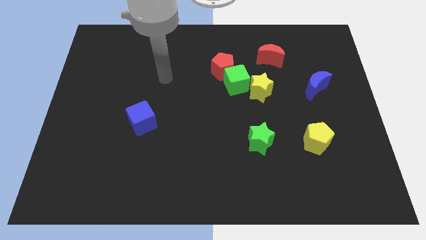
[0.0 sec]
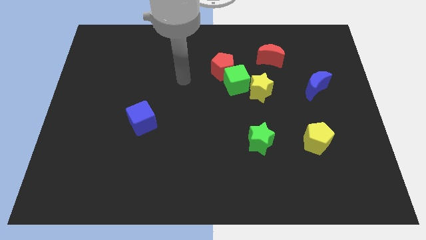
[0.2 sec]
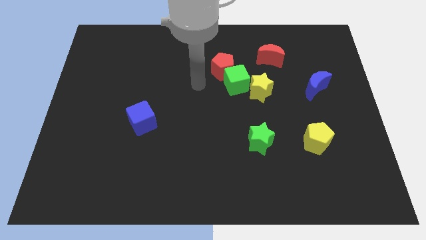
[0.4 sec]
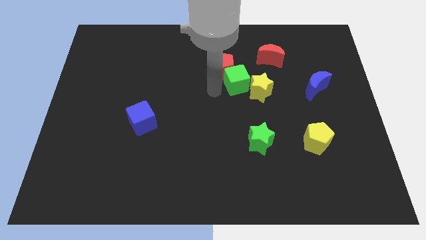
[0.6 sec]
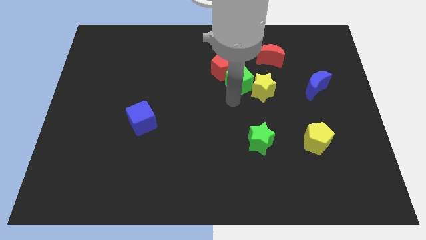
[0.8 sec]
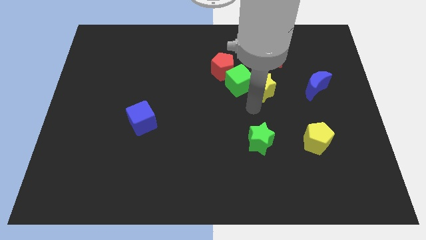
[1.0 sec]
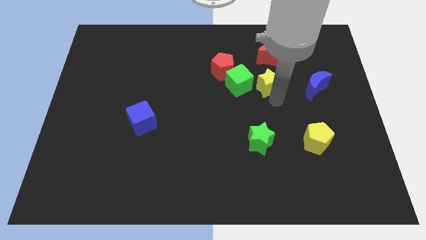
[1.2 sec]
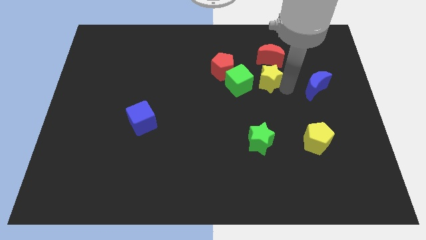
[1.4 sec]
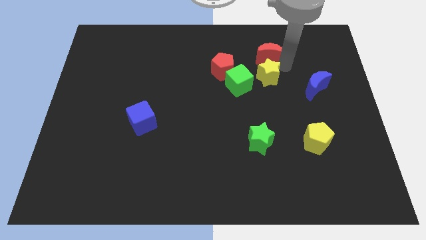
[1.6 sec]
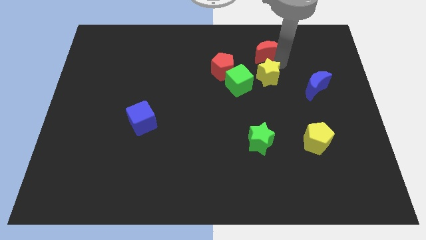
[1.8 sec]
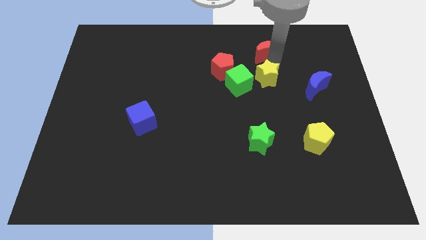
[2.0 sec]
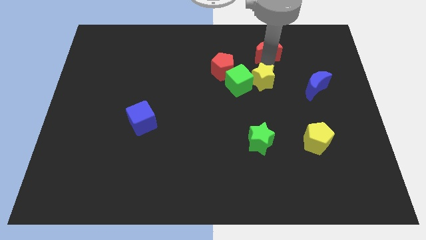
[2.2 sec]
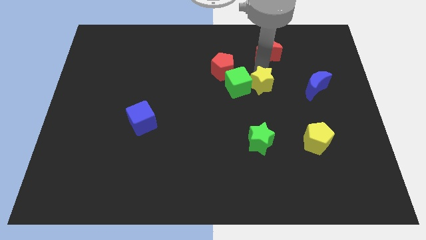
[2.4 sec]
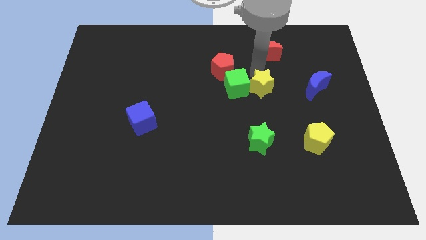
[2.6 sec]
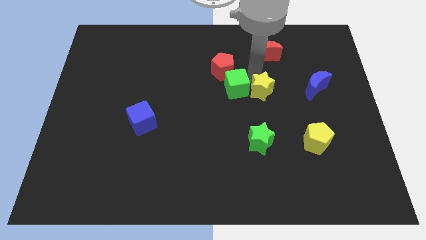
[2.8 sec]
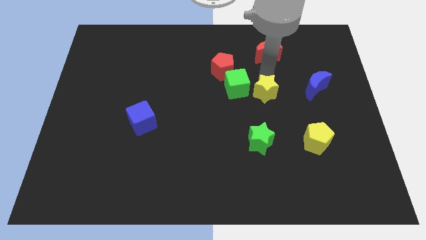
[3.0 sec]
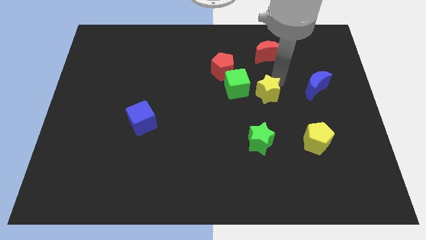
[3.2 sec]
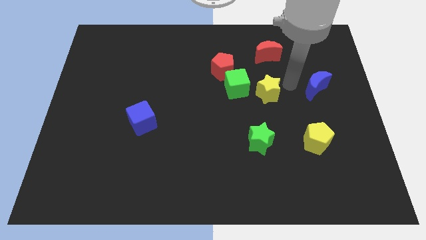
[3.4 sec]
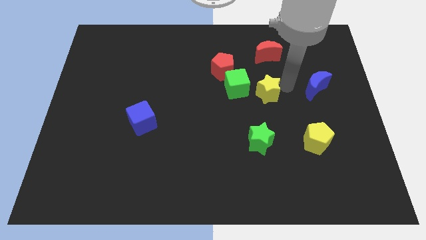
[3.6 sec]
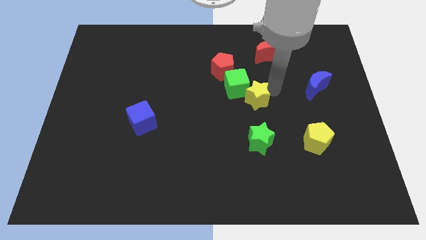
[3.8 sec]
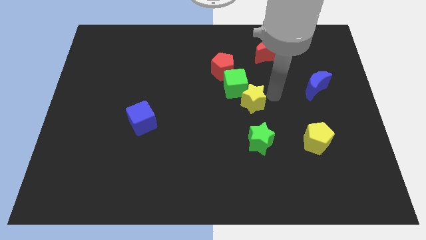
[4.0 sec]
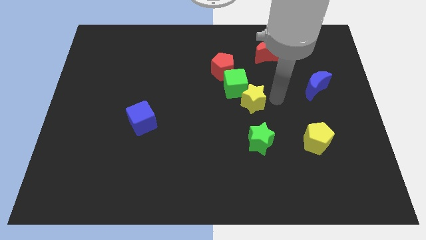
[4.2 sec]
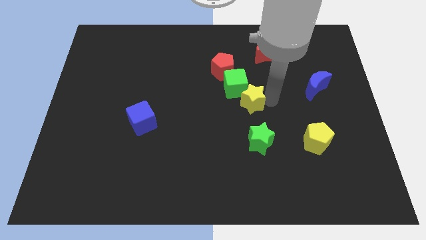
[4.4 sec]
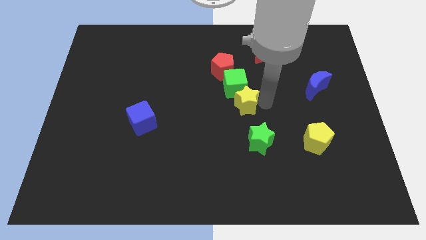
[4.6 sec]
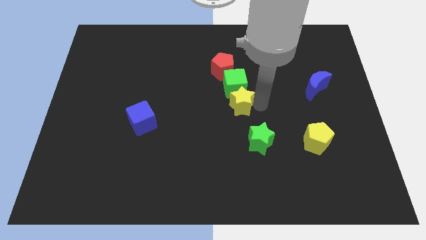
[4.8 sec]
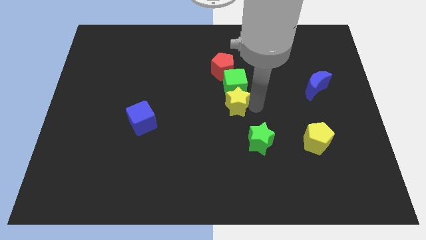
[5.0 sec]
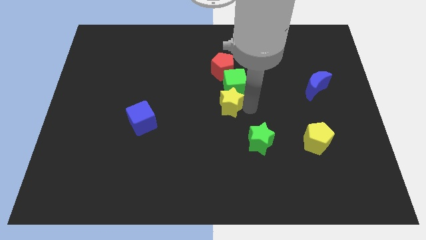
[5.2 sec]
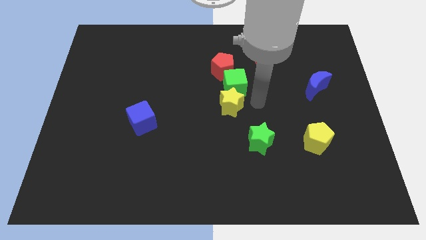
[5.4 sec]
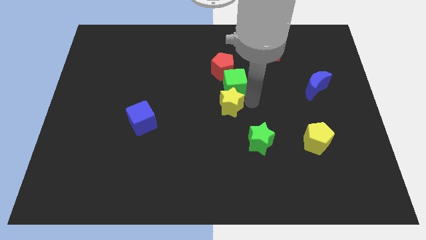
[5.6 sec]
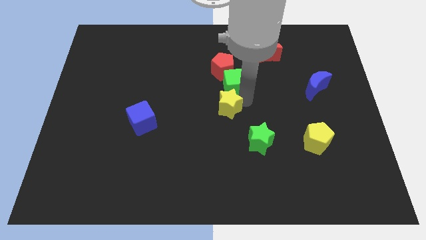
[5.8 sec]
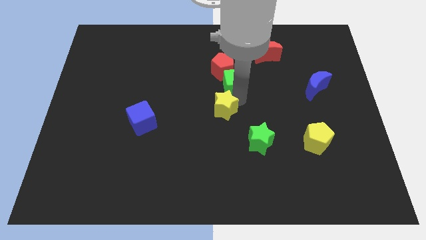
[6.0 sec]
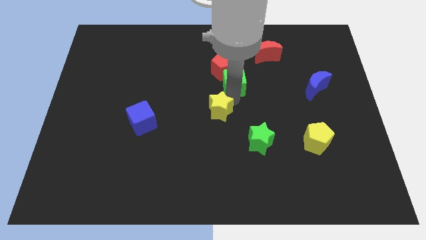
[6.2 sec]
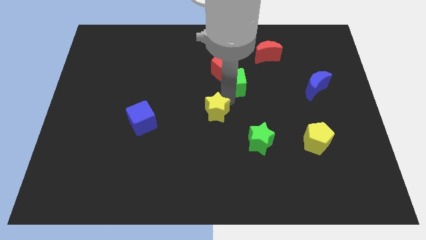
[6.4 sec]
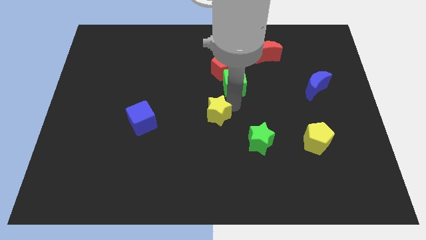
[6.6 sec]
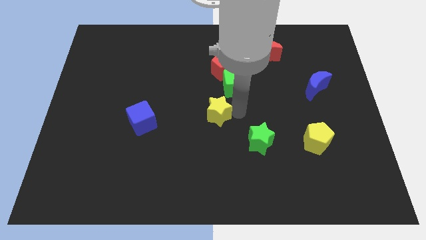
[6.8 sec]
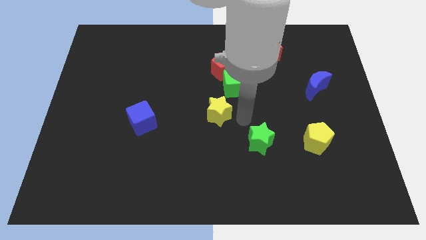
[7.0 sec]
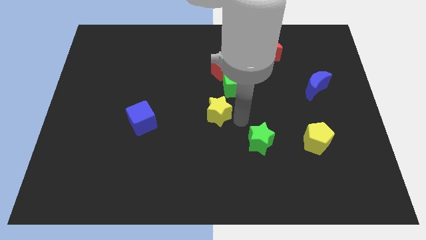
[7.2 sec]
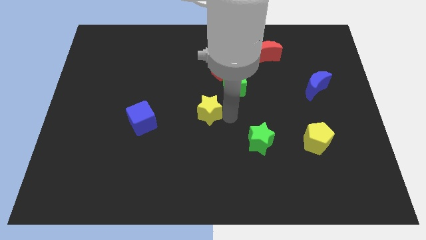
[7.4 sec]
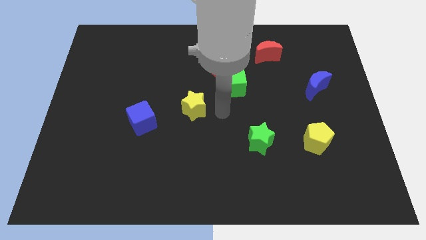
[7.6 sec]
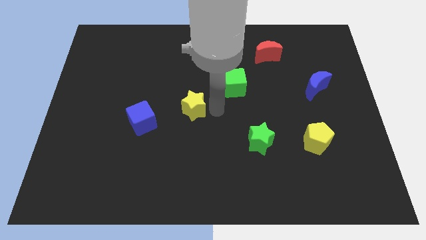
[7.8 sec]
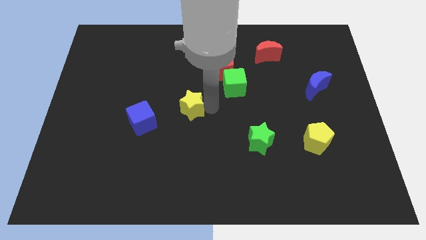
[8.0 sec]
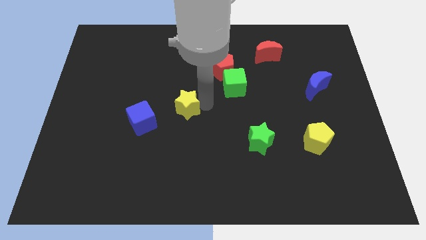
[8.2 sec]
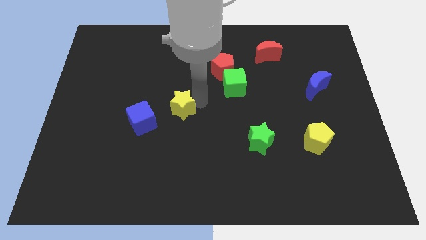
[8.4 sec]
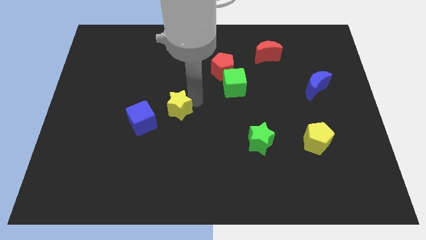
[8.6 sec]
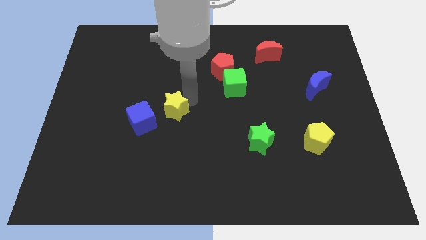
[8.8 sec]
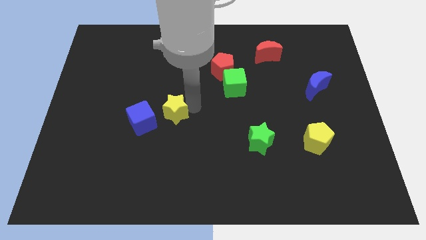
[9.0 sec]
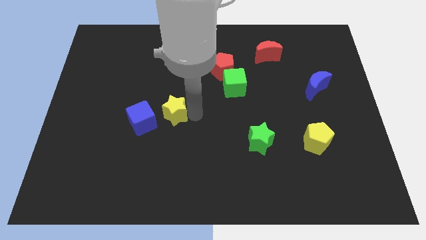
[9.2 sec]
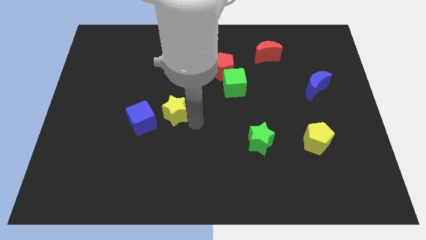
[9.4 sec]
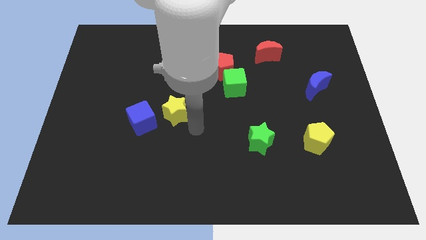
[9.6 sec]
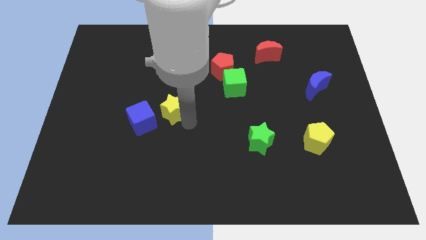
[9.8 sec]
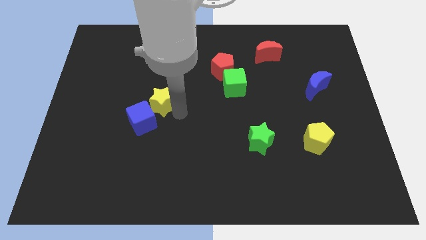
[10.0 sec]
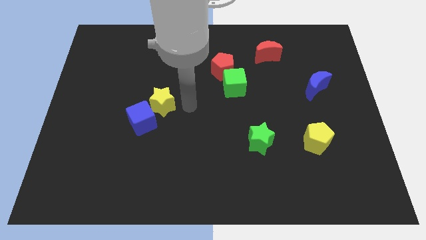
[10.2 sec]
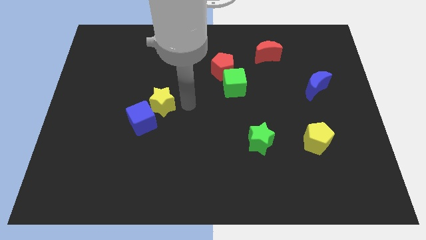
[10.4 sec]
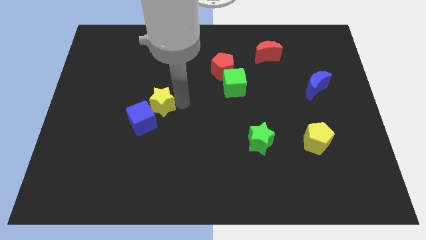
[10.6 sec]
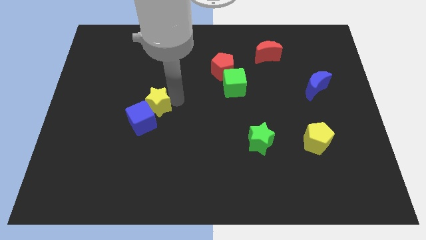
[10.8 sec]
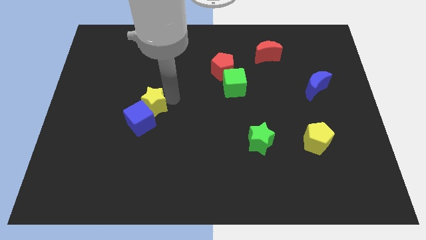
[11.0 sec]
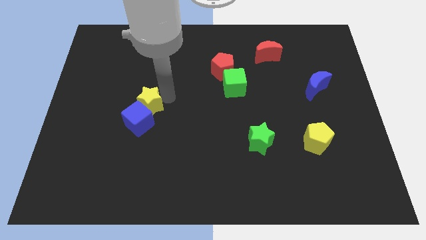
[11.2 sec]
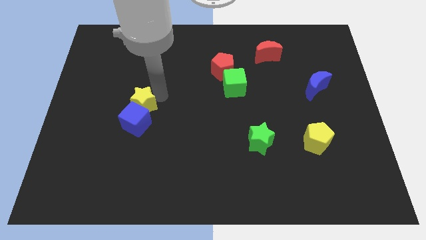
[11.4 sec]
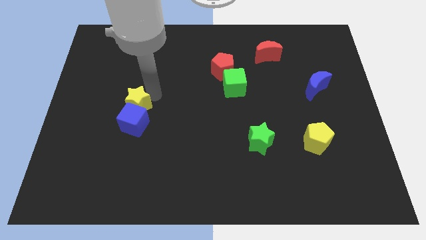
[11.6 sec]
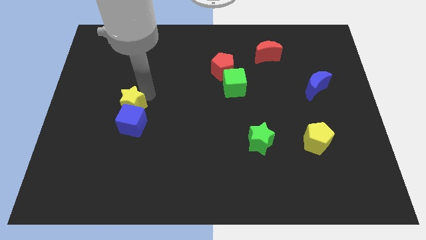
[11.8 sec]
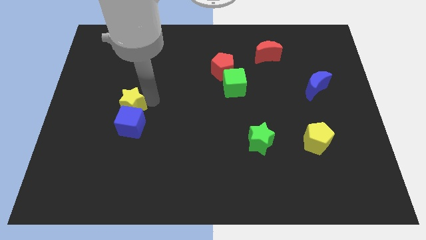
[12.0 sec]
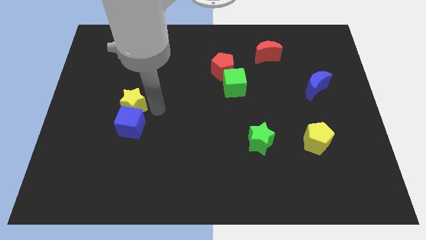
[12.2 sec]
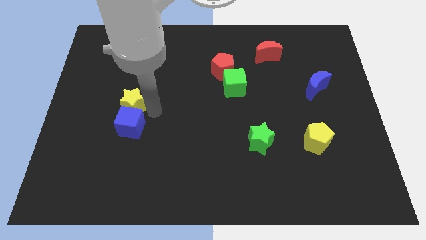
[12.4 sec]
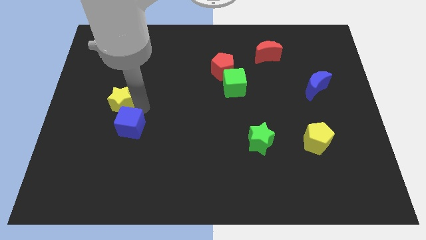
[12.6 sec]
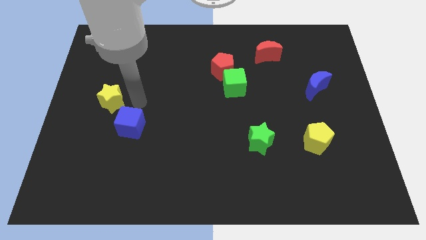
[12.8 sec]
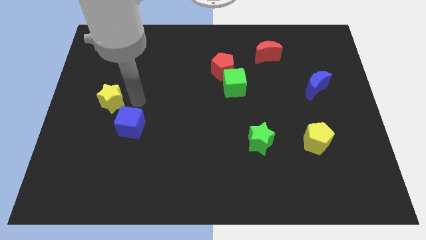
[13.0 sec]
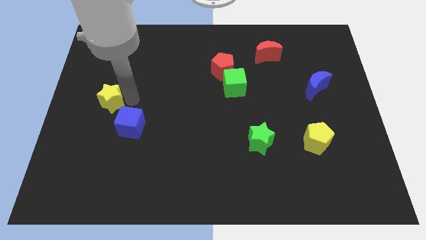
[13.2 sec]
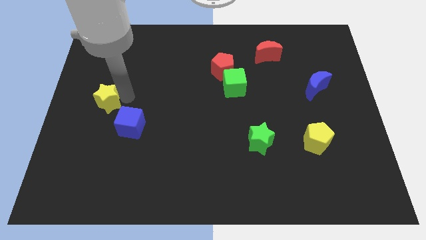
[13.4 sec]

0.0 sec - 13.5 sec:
move the yellow star to the left side of the board

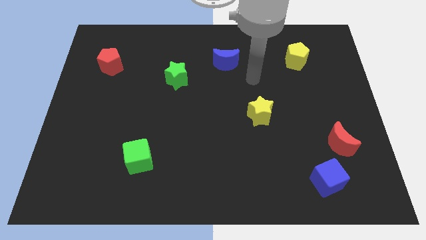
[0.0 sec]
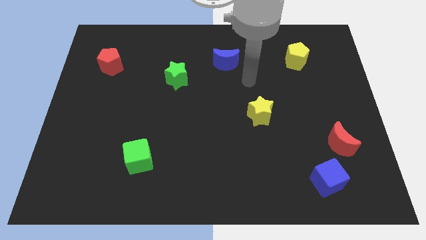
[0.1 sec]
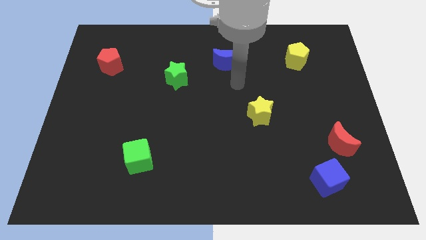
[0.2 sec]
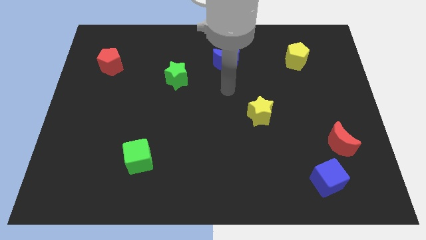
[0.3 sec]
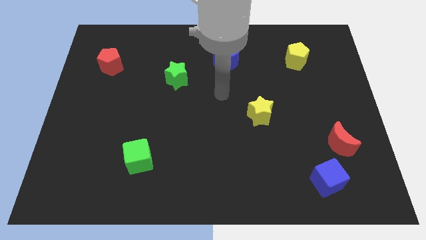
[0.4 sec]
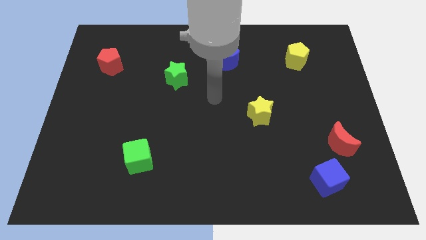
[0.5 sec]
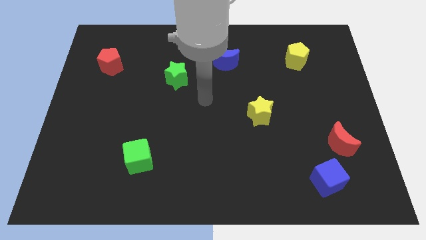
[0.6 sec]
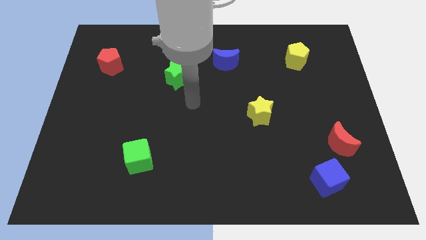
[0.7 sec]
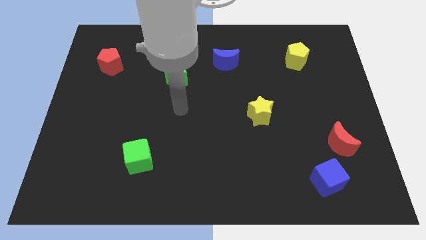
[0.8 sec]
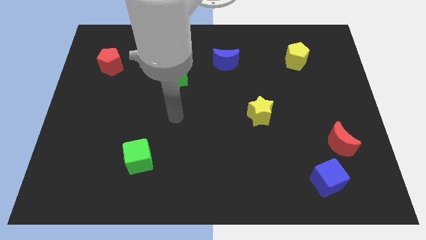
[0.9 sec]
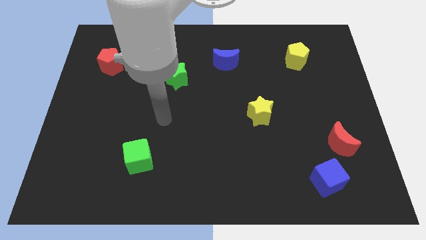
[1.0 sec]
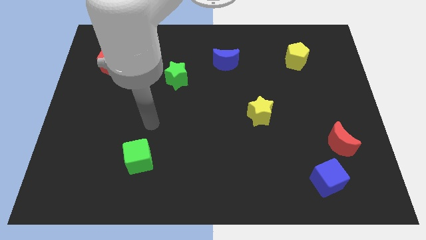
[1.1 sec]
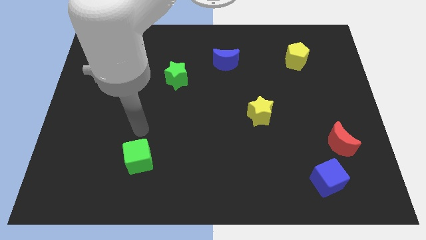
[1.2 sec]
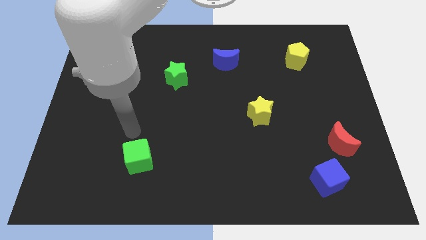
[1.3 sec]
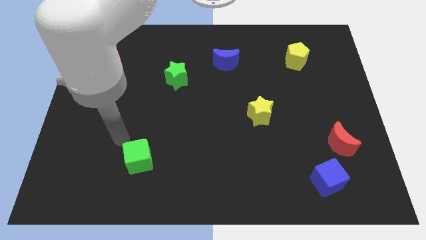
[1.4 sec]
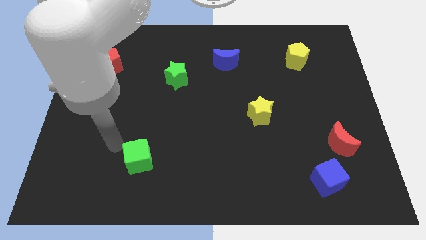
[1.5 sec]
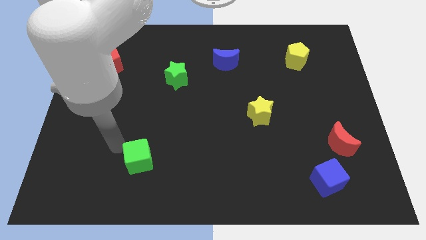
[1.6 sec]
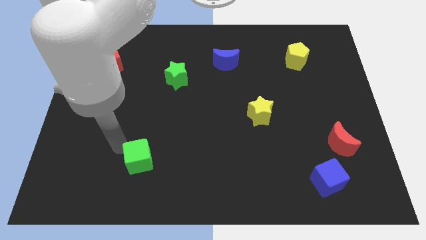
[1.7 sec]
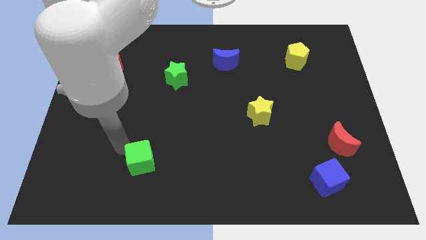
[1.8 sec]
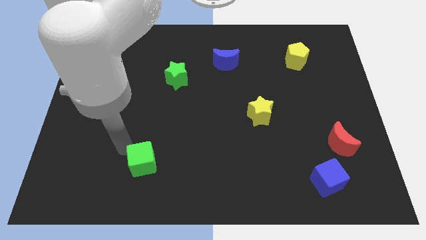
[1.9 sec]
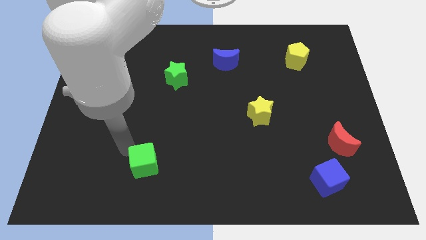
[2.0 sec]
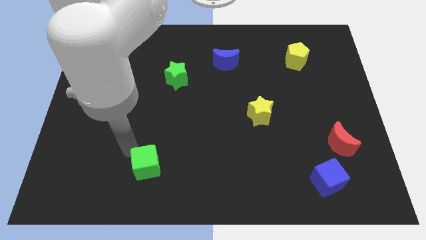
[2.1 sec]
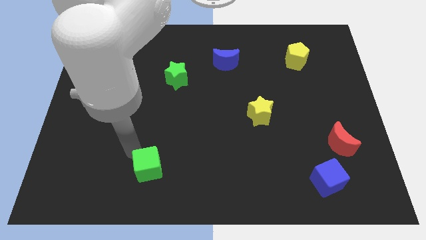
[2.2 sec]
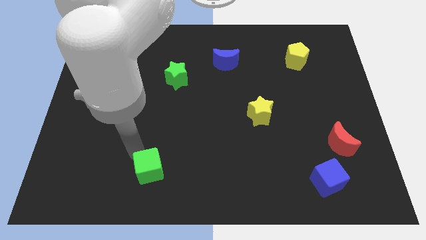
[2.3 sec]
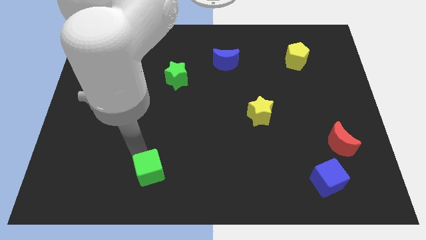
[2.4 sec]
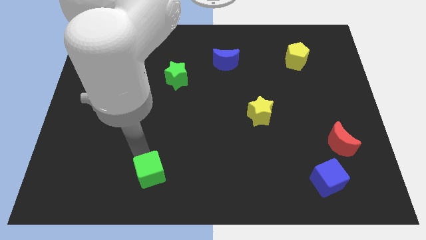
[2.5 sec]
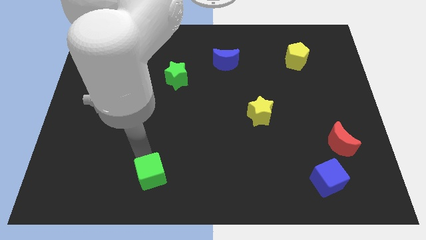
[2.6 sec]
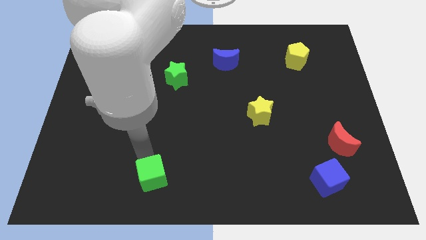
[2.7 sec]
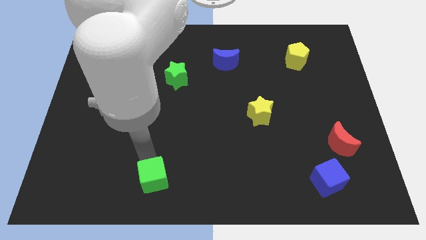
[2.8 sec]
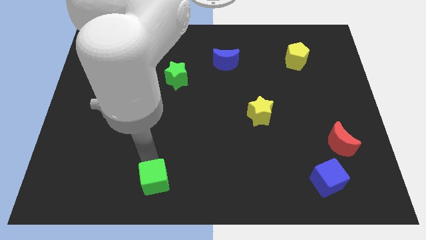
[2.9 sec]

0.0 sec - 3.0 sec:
push the green cube to the bottom side
